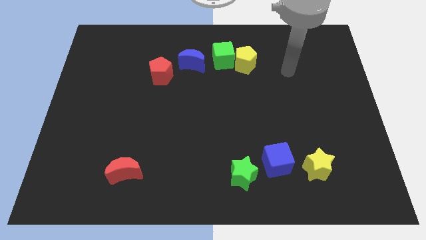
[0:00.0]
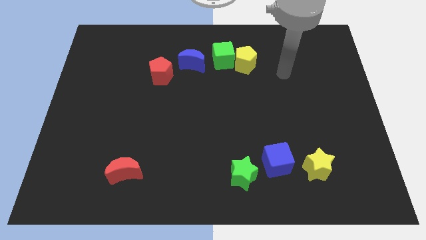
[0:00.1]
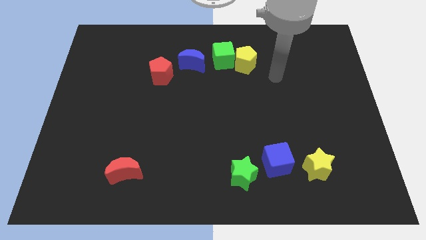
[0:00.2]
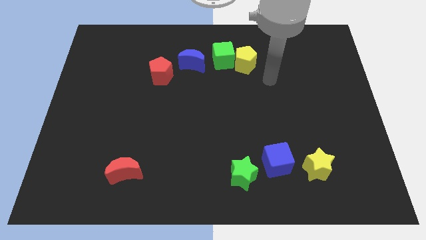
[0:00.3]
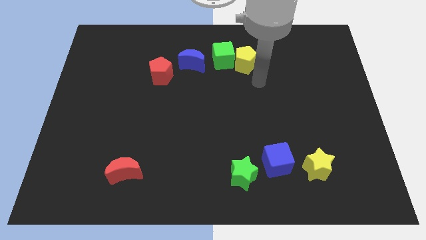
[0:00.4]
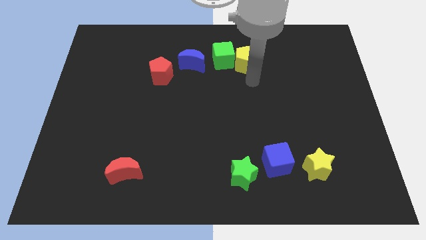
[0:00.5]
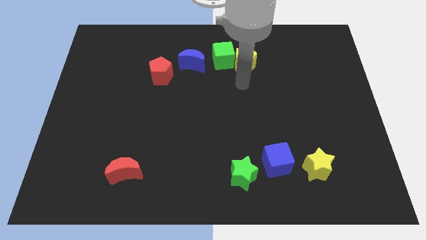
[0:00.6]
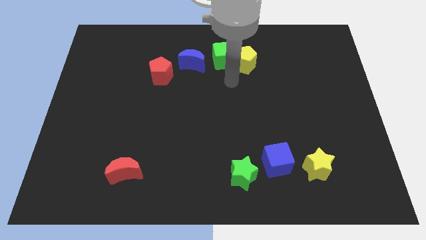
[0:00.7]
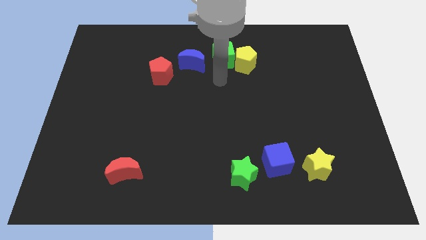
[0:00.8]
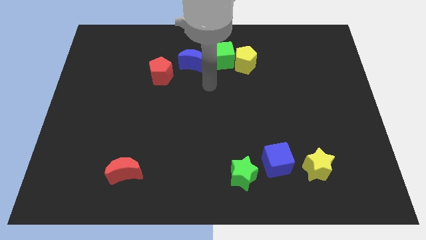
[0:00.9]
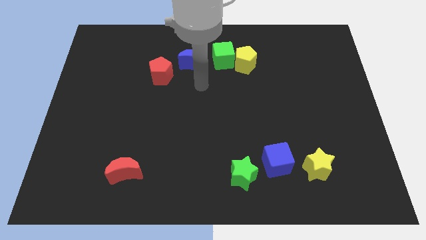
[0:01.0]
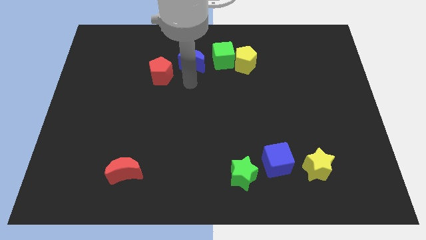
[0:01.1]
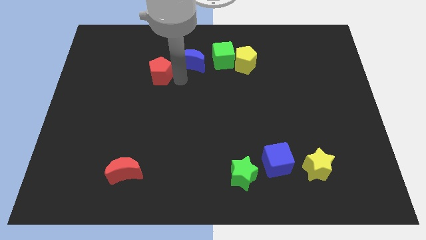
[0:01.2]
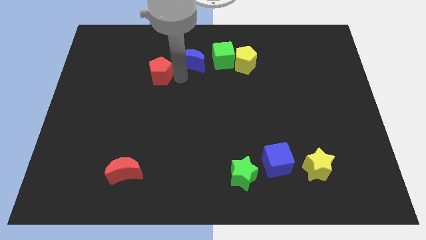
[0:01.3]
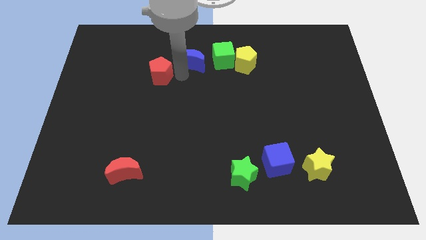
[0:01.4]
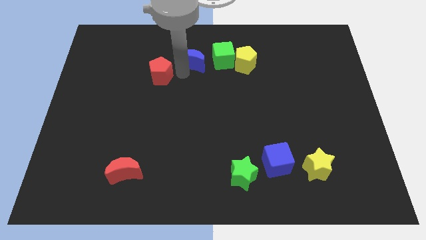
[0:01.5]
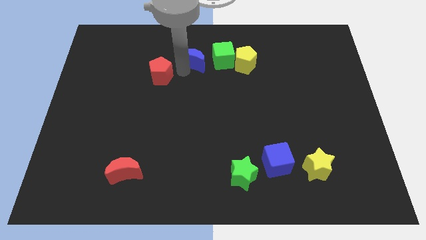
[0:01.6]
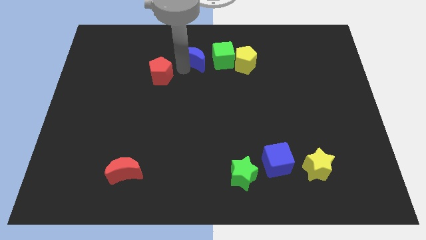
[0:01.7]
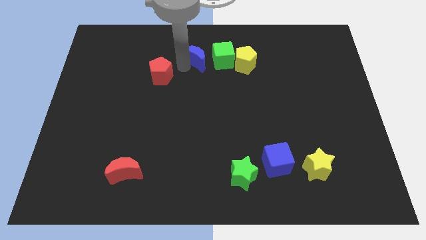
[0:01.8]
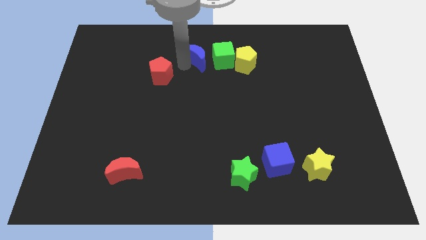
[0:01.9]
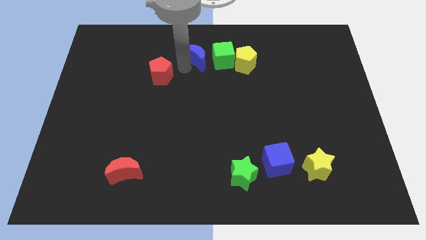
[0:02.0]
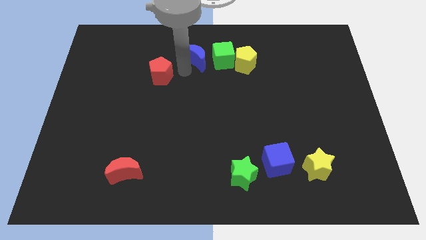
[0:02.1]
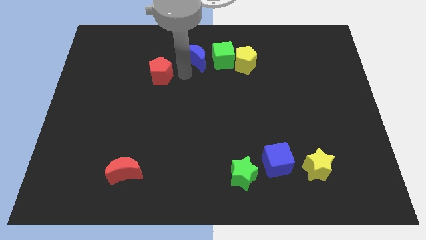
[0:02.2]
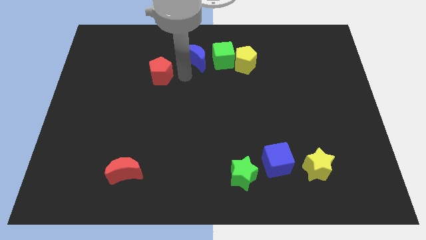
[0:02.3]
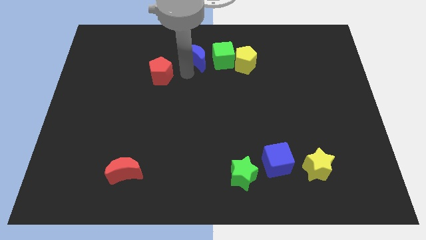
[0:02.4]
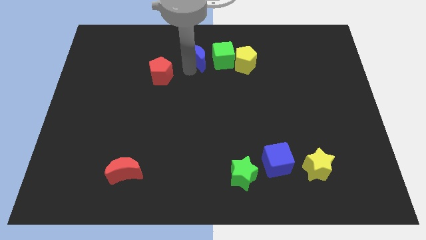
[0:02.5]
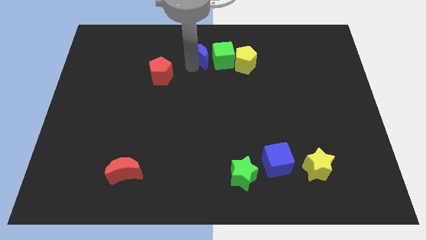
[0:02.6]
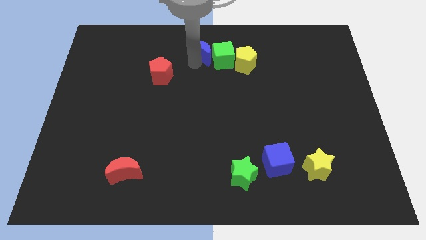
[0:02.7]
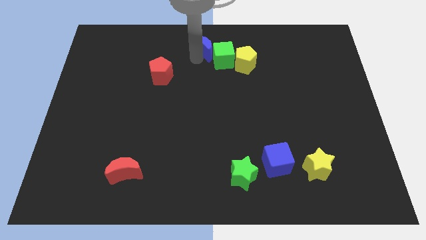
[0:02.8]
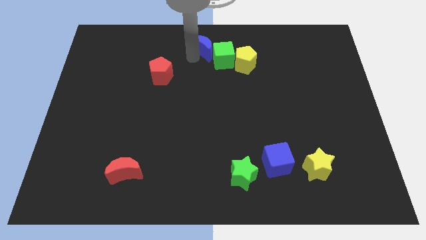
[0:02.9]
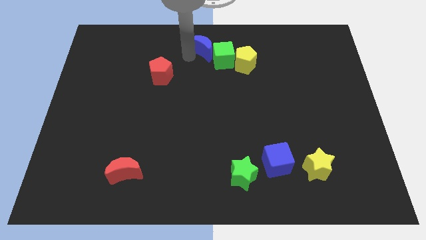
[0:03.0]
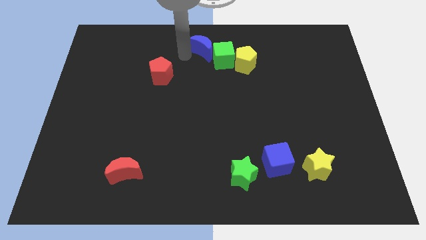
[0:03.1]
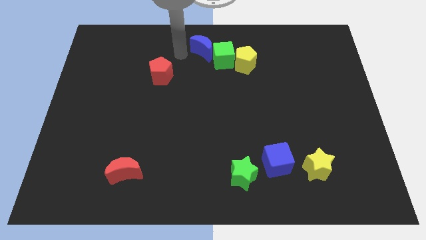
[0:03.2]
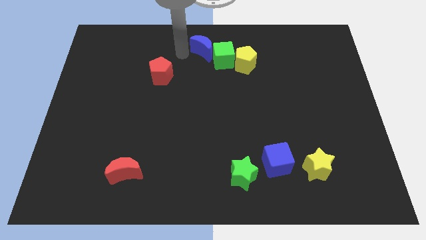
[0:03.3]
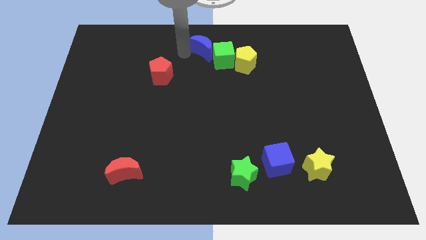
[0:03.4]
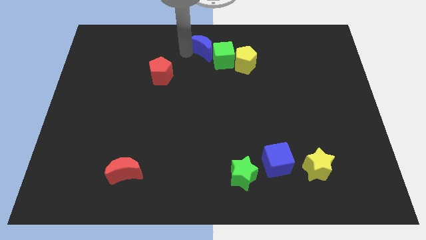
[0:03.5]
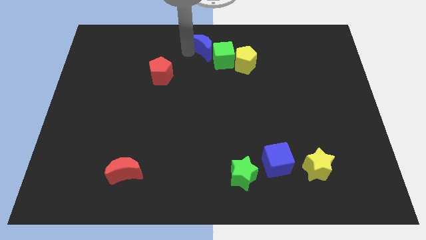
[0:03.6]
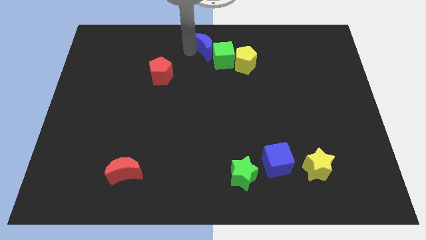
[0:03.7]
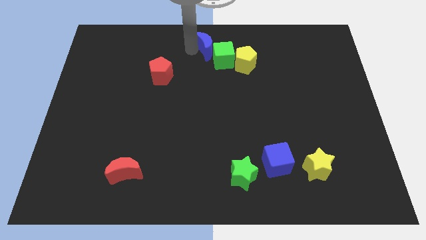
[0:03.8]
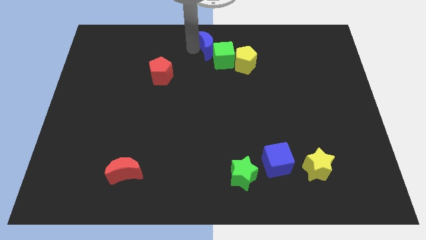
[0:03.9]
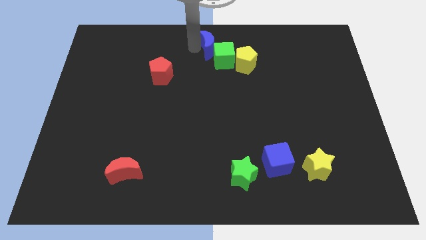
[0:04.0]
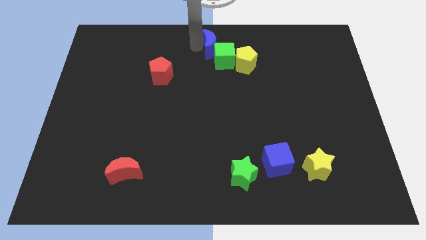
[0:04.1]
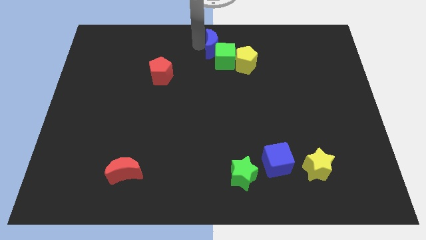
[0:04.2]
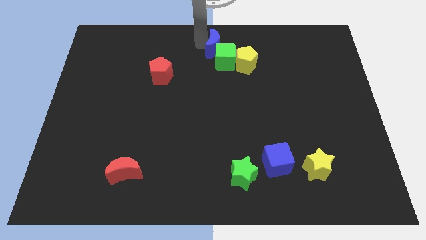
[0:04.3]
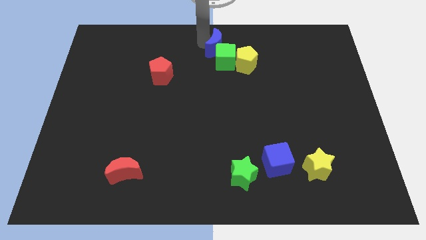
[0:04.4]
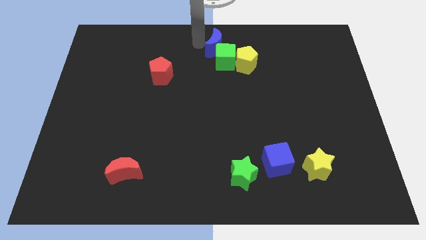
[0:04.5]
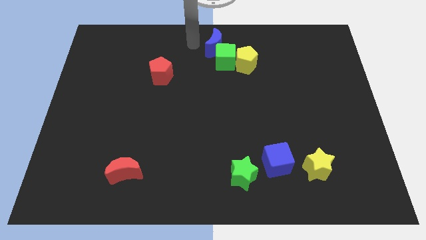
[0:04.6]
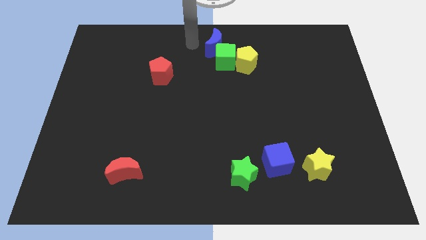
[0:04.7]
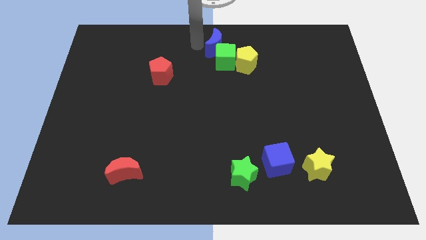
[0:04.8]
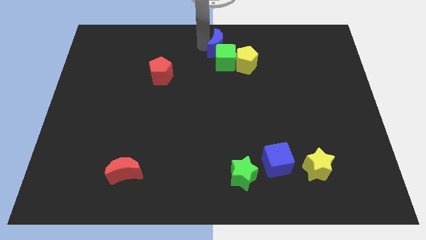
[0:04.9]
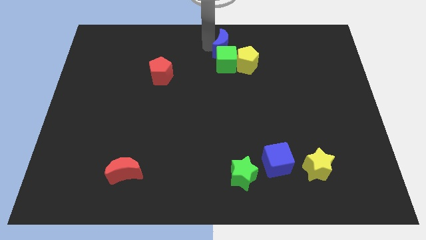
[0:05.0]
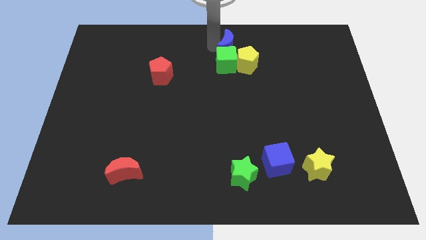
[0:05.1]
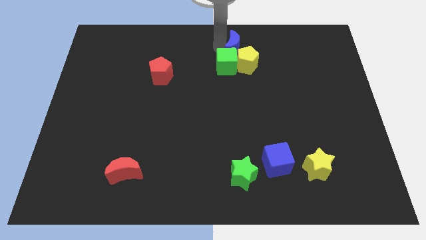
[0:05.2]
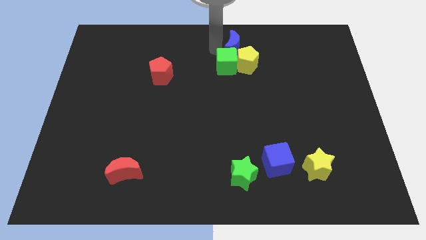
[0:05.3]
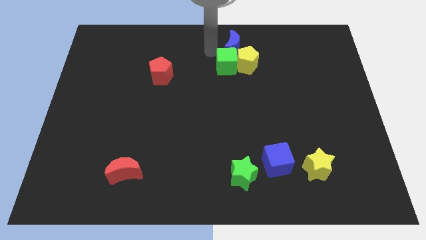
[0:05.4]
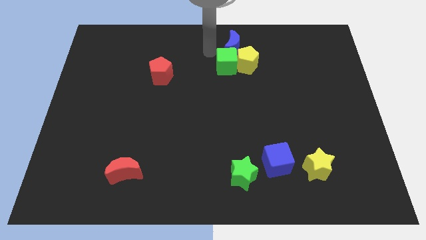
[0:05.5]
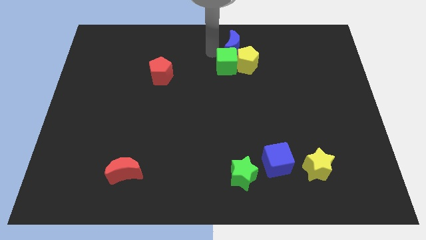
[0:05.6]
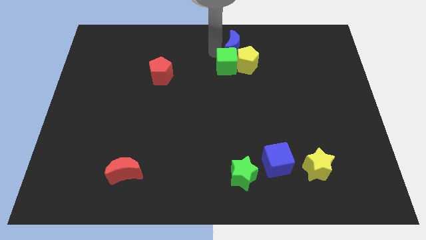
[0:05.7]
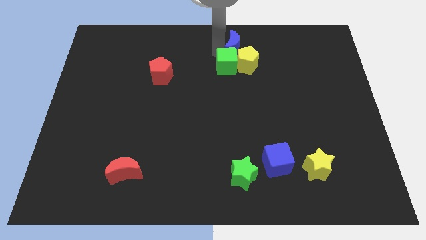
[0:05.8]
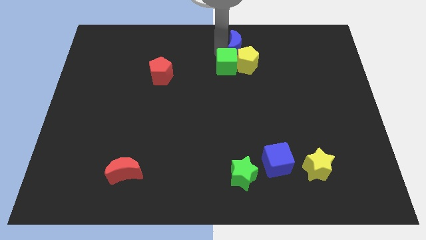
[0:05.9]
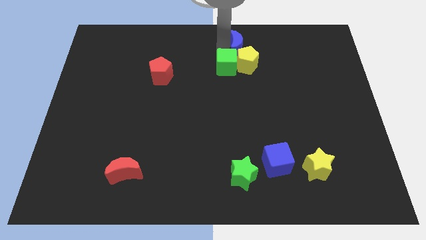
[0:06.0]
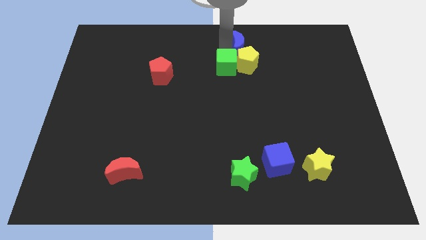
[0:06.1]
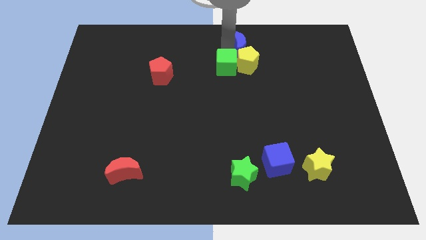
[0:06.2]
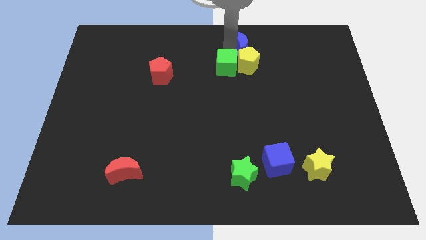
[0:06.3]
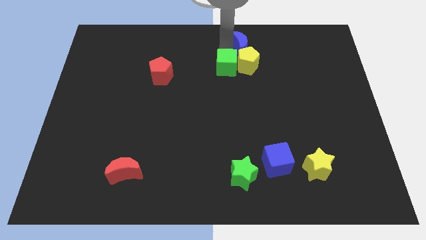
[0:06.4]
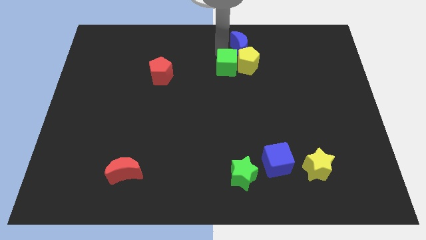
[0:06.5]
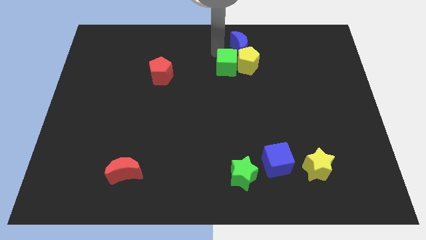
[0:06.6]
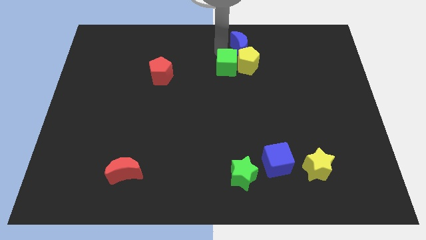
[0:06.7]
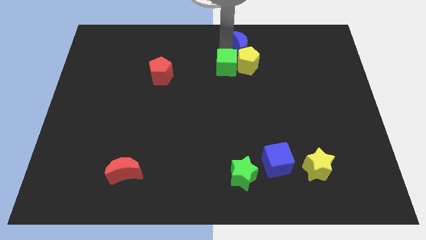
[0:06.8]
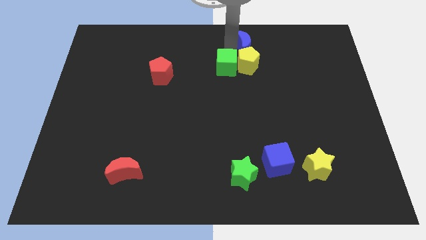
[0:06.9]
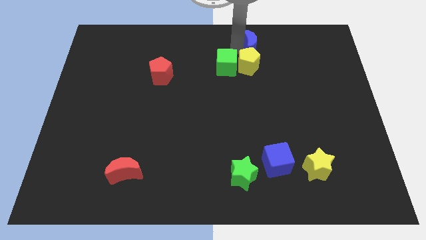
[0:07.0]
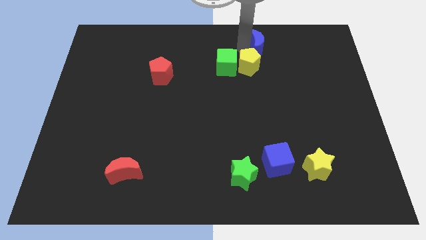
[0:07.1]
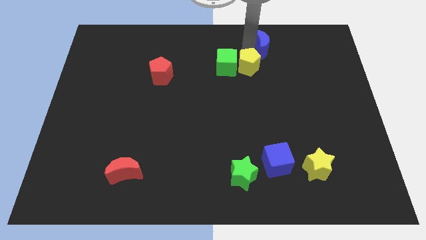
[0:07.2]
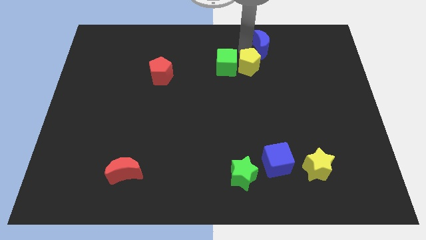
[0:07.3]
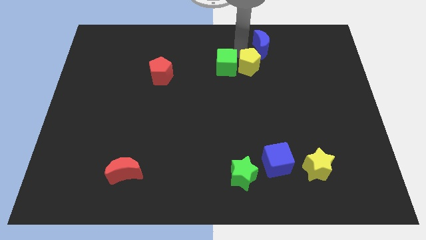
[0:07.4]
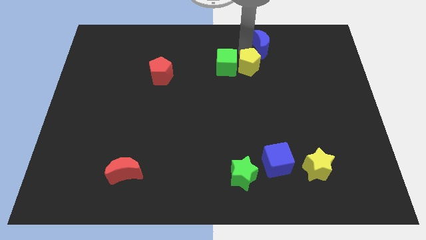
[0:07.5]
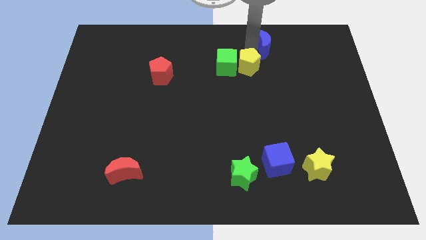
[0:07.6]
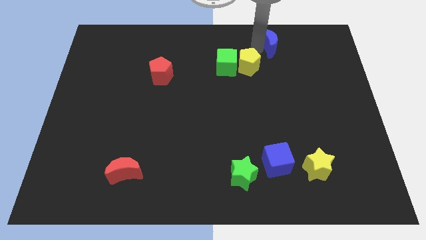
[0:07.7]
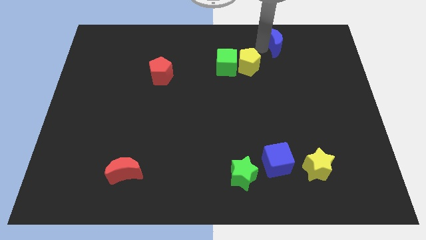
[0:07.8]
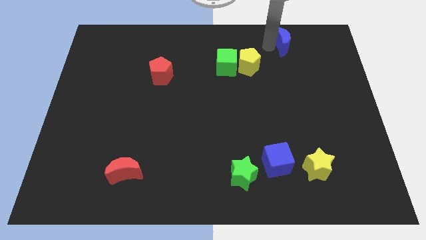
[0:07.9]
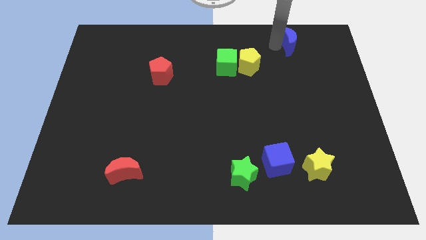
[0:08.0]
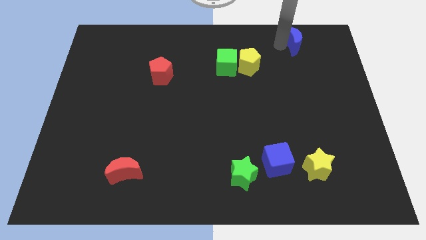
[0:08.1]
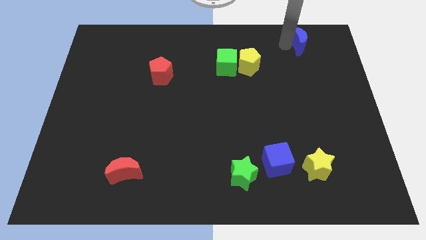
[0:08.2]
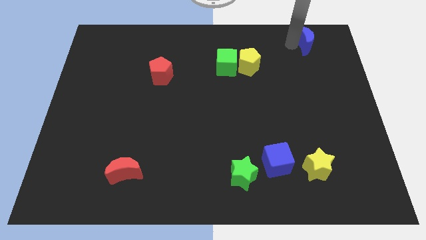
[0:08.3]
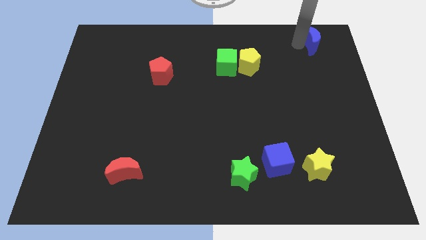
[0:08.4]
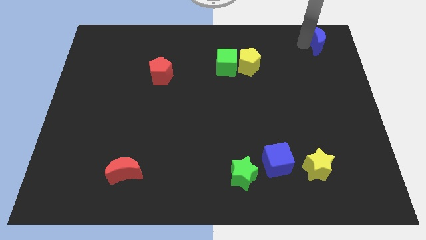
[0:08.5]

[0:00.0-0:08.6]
push the blue moon to the top right
